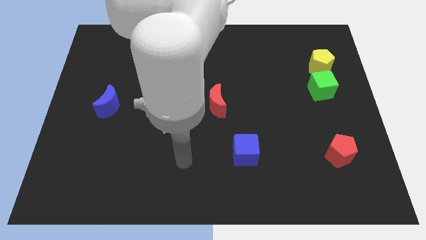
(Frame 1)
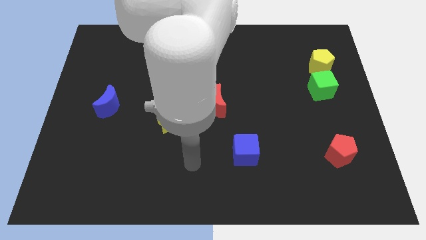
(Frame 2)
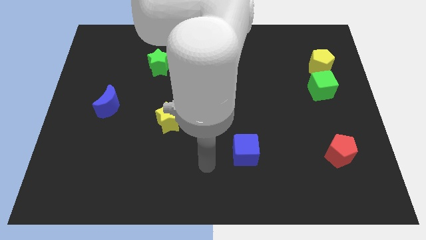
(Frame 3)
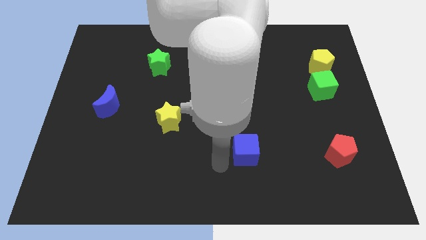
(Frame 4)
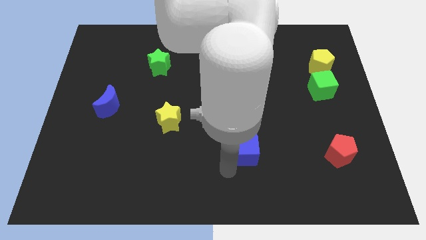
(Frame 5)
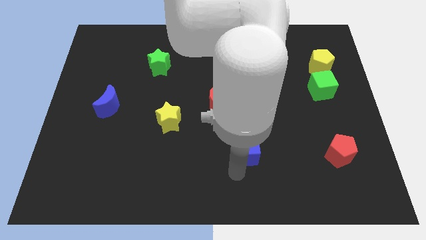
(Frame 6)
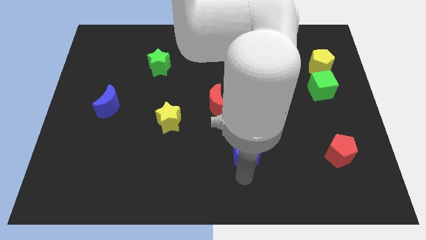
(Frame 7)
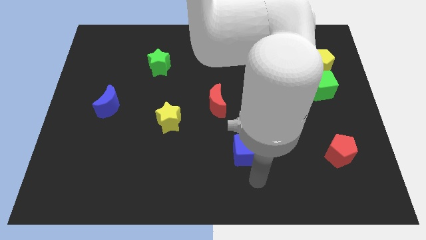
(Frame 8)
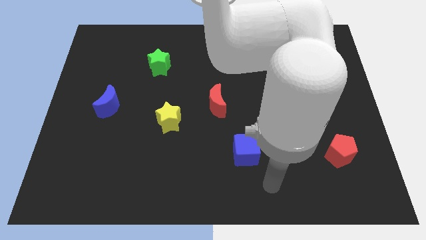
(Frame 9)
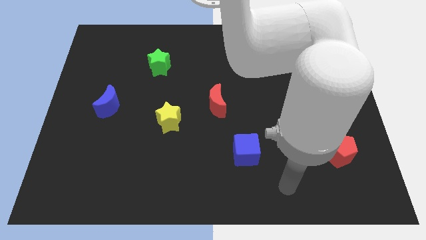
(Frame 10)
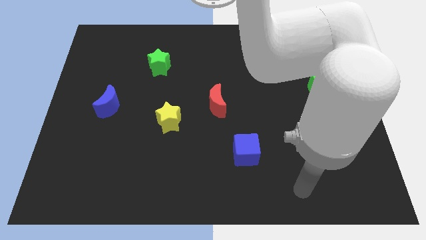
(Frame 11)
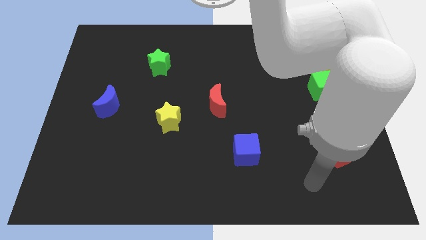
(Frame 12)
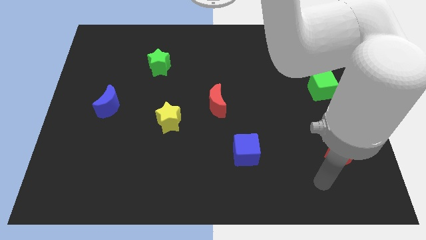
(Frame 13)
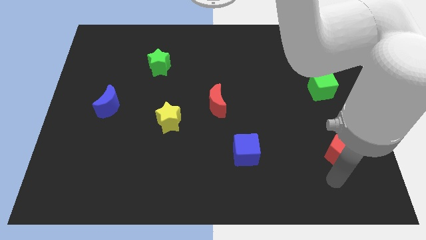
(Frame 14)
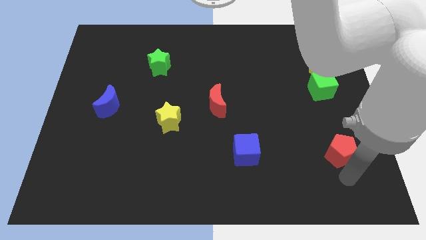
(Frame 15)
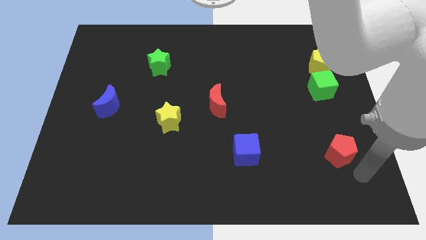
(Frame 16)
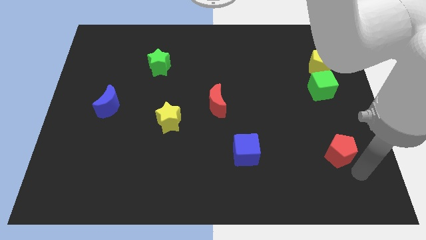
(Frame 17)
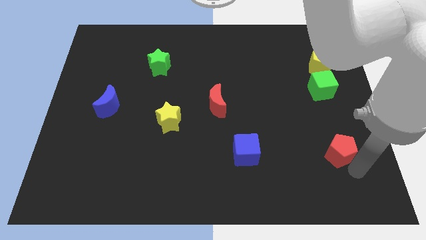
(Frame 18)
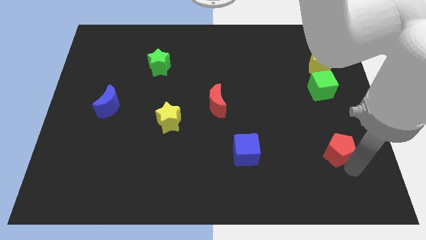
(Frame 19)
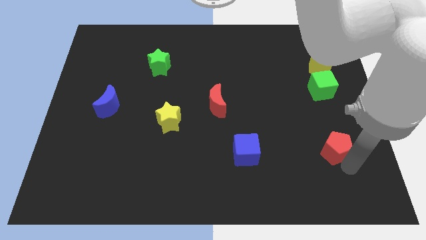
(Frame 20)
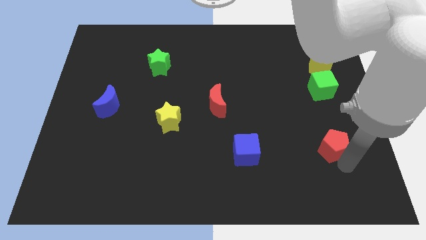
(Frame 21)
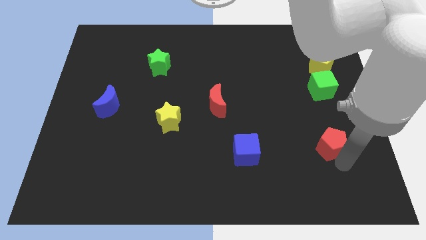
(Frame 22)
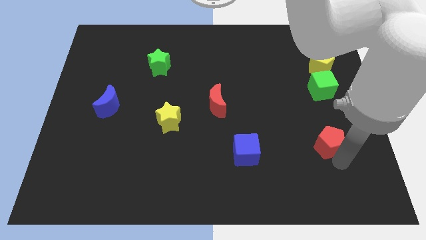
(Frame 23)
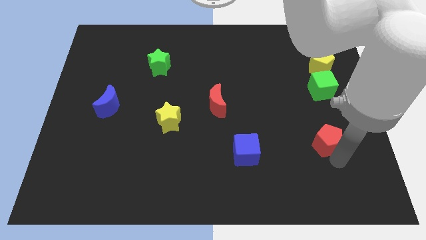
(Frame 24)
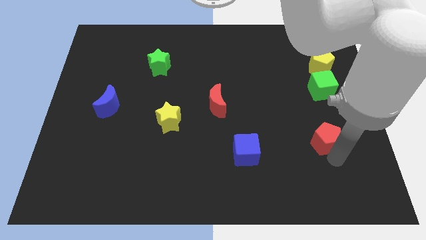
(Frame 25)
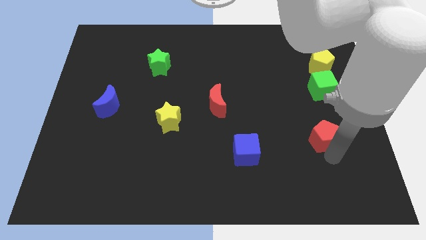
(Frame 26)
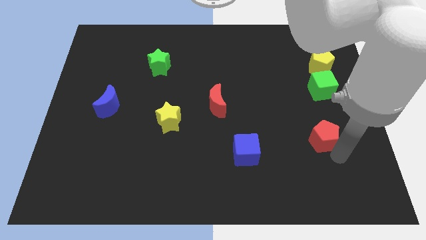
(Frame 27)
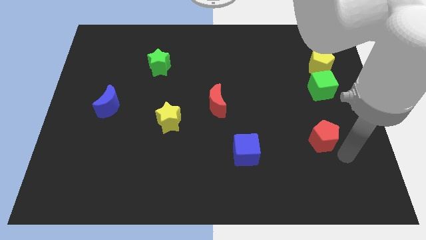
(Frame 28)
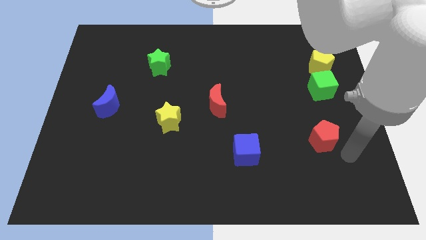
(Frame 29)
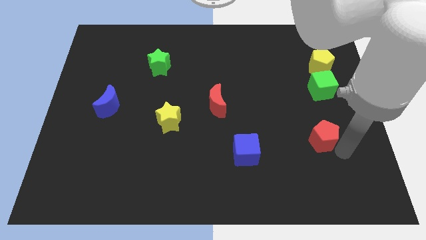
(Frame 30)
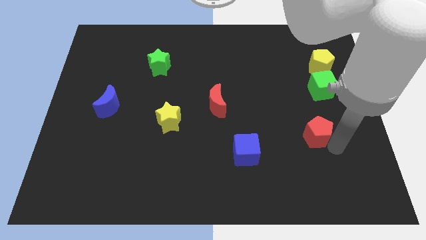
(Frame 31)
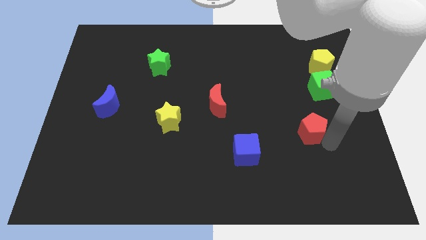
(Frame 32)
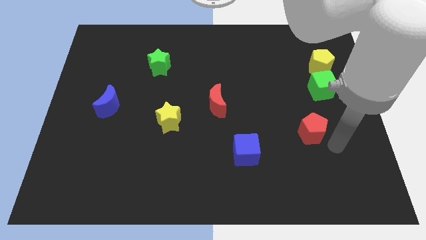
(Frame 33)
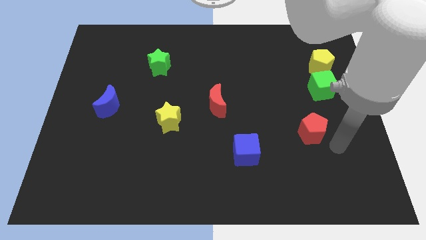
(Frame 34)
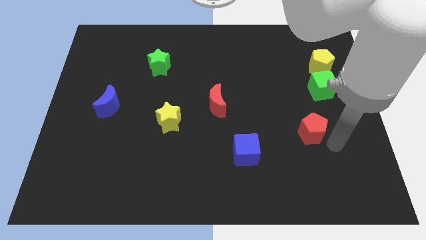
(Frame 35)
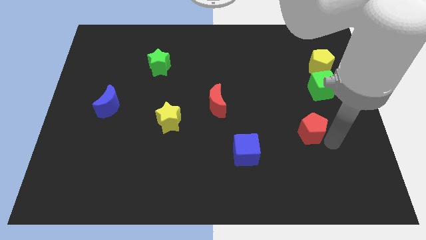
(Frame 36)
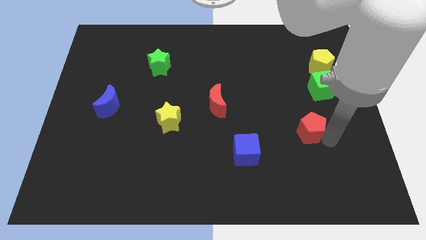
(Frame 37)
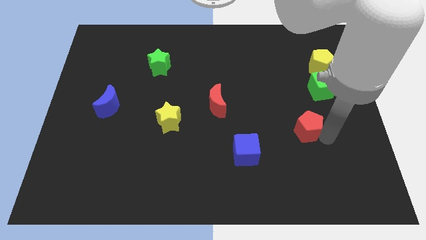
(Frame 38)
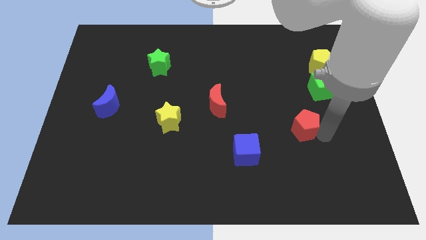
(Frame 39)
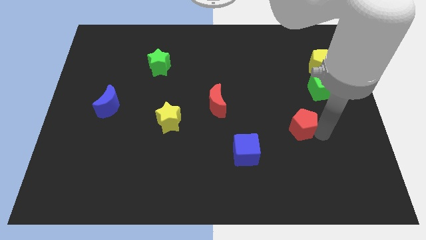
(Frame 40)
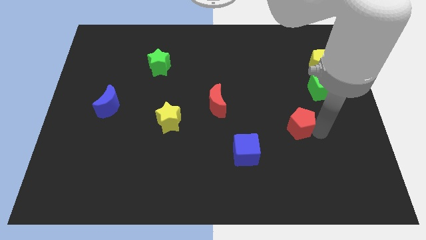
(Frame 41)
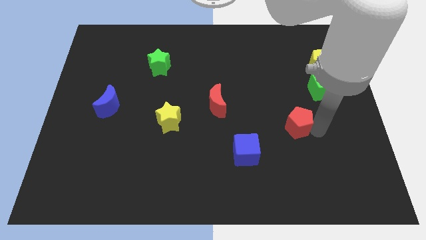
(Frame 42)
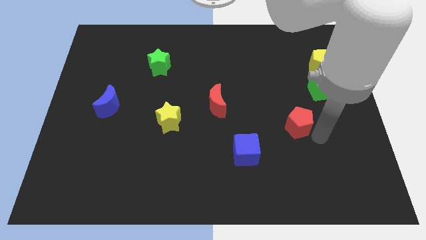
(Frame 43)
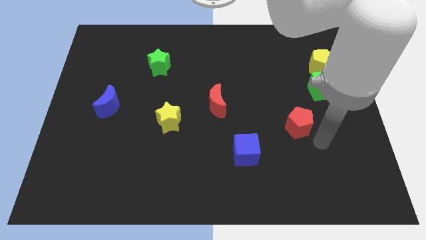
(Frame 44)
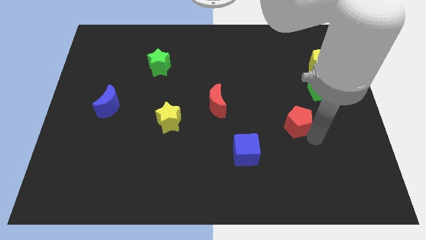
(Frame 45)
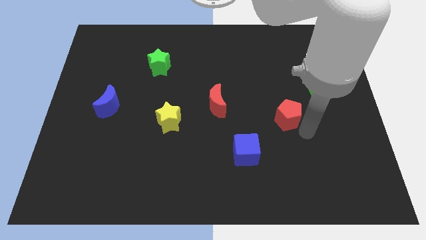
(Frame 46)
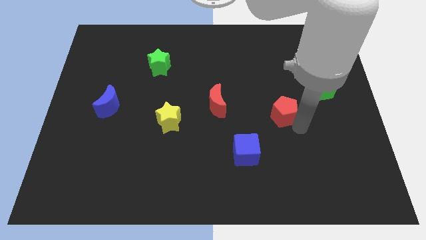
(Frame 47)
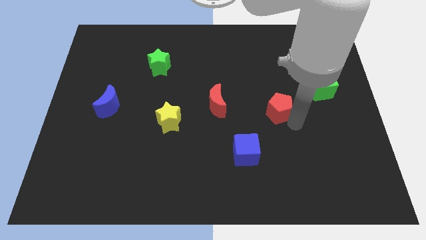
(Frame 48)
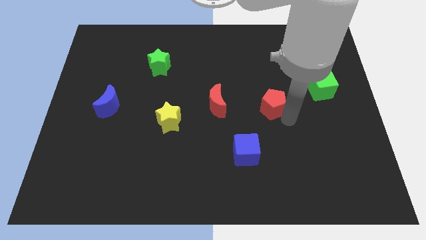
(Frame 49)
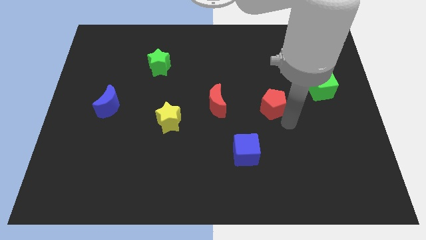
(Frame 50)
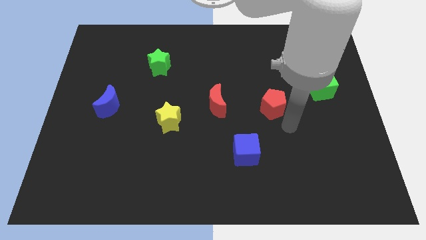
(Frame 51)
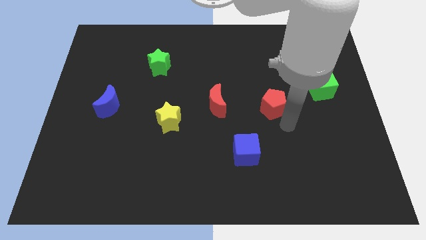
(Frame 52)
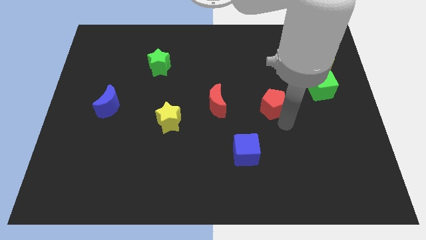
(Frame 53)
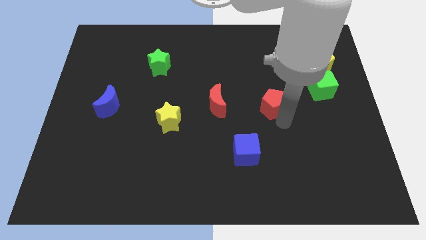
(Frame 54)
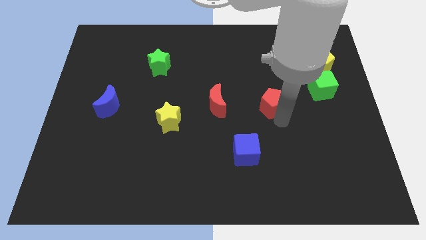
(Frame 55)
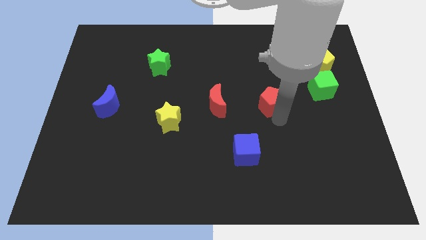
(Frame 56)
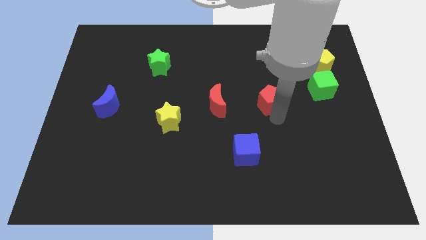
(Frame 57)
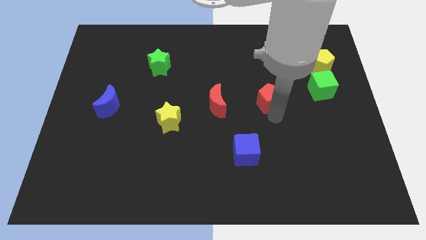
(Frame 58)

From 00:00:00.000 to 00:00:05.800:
move the red pentagon upwards and to the left diagonally

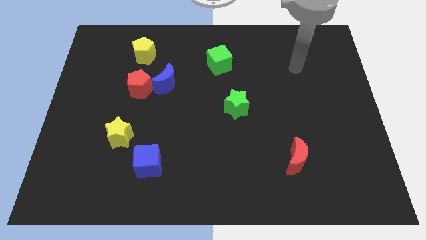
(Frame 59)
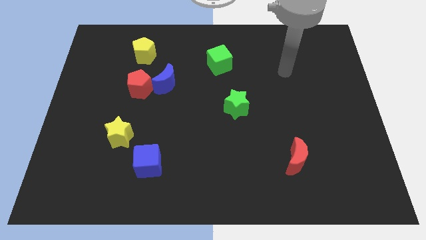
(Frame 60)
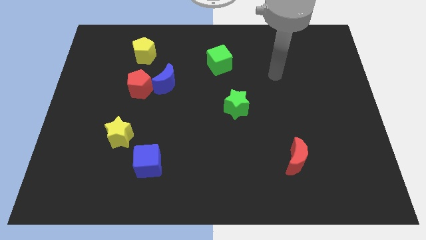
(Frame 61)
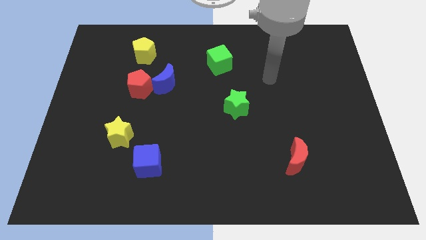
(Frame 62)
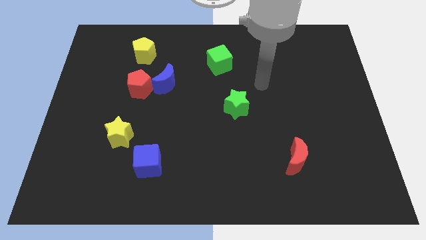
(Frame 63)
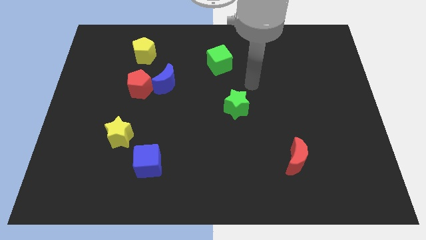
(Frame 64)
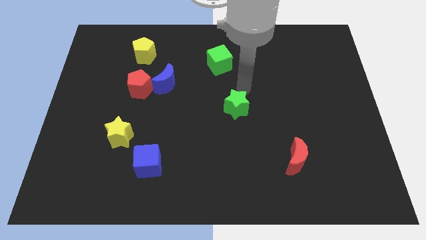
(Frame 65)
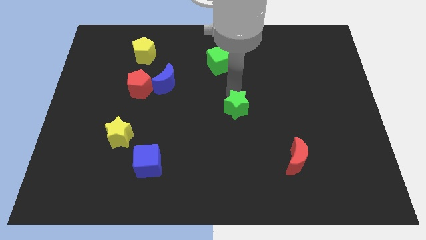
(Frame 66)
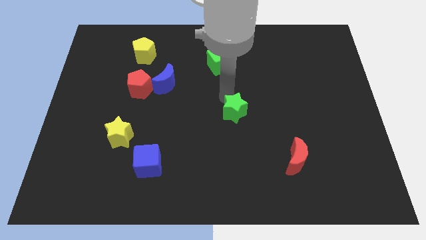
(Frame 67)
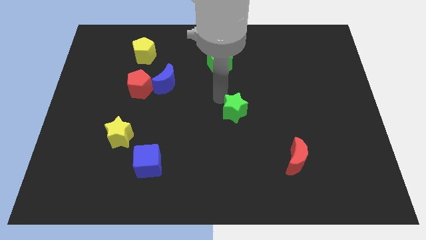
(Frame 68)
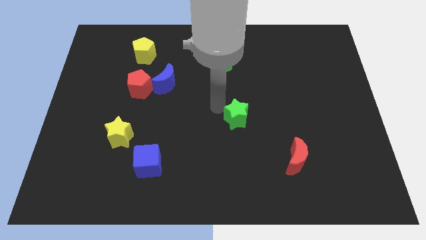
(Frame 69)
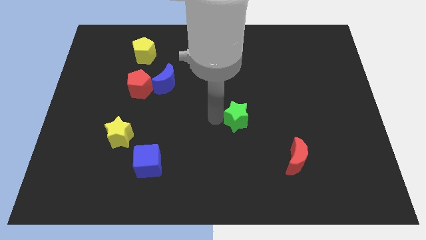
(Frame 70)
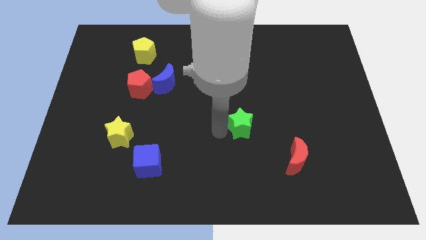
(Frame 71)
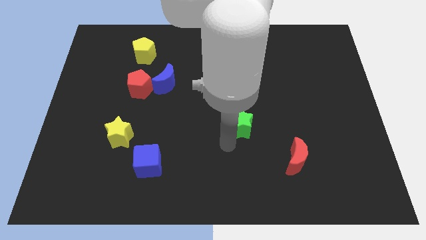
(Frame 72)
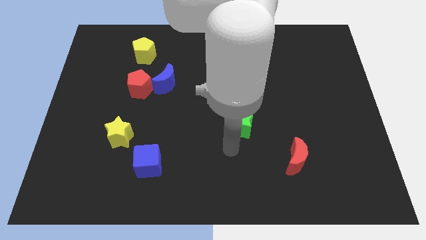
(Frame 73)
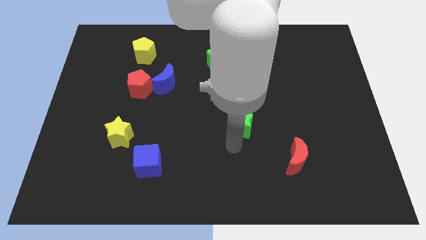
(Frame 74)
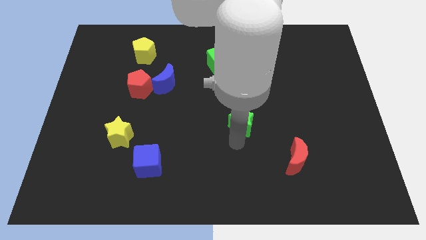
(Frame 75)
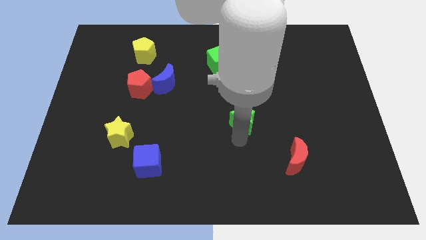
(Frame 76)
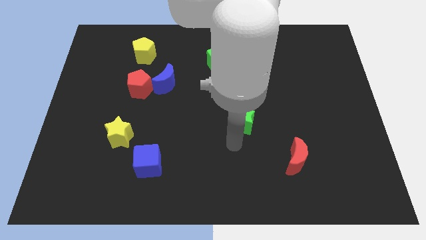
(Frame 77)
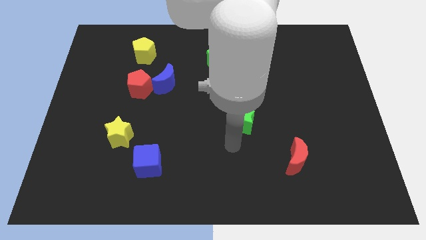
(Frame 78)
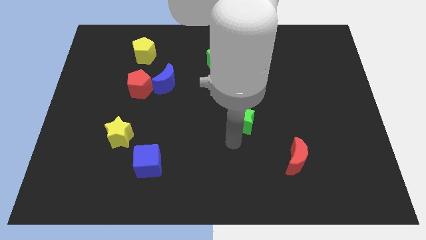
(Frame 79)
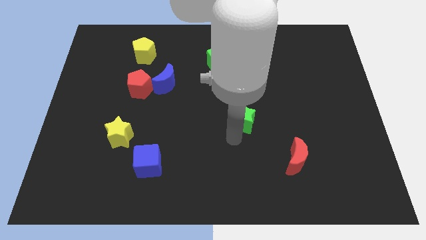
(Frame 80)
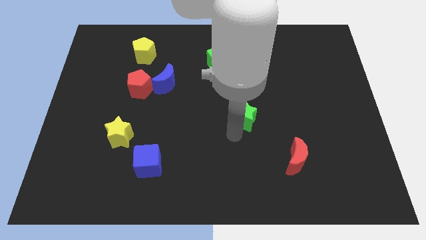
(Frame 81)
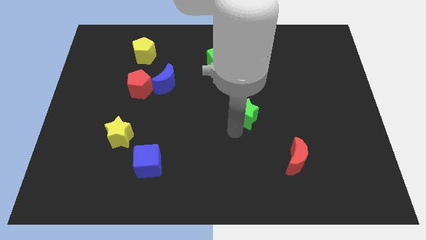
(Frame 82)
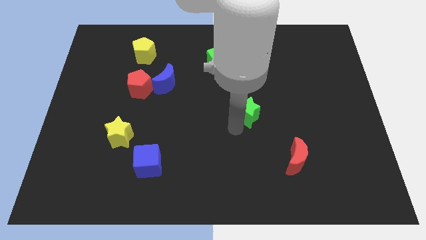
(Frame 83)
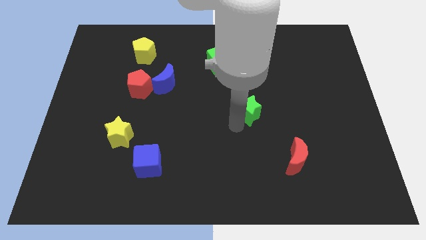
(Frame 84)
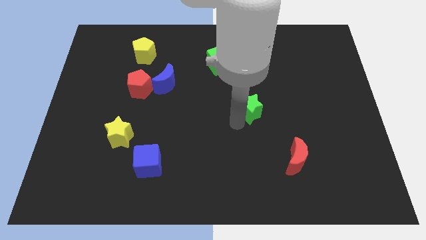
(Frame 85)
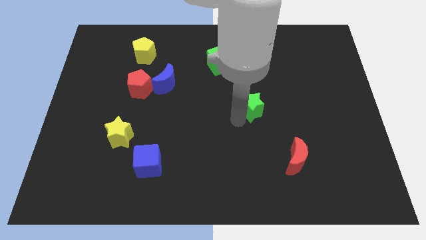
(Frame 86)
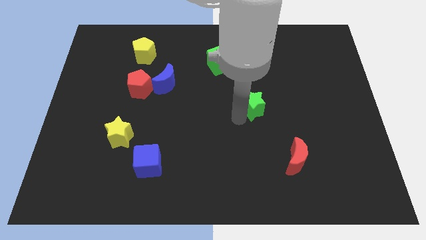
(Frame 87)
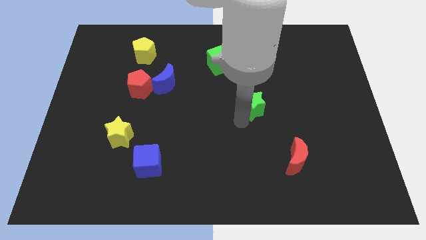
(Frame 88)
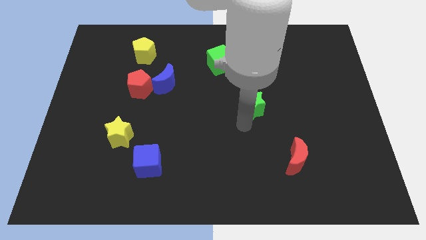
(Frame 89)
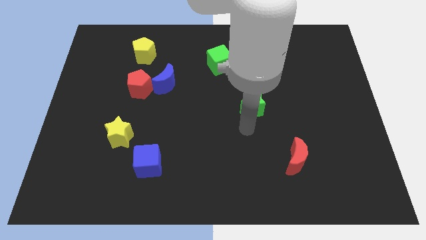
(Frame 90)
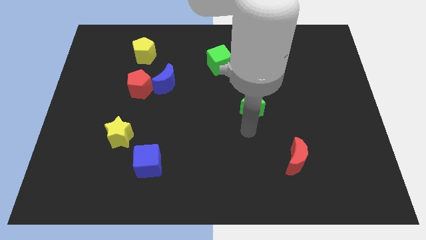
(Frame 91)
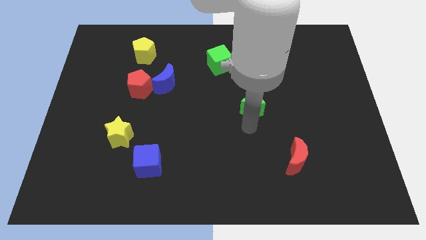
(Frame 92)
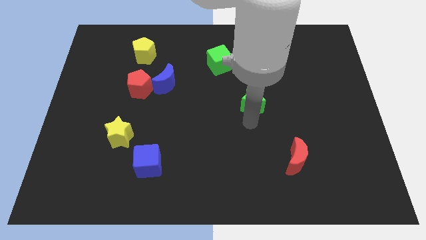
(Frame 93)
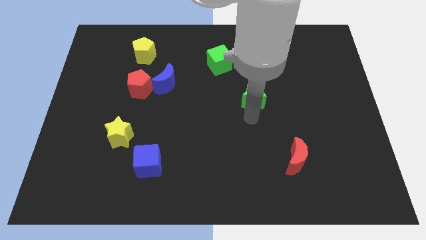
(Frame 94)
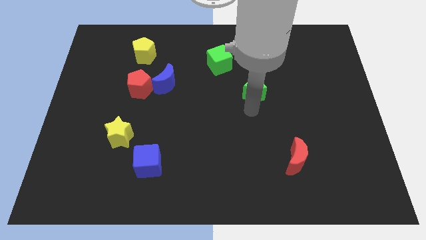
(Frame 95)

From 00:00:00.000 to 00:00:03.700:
push the green star up and then right somewhat
